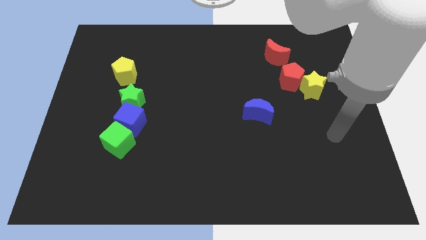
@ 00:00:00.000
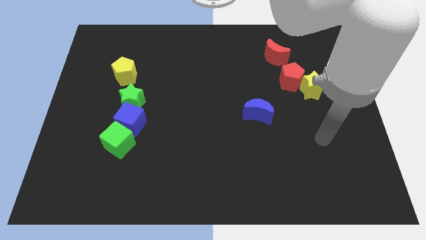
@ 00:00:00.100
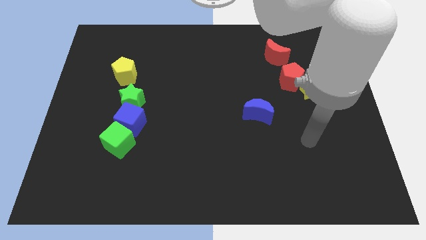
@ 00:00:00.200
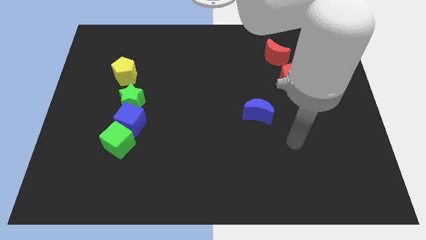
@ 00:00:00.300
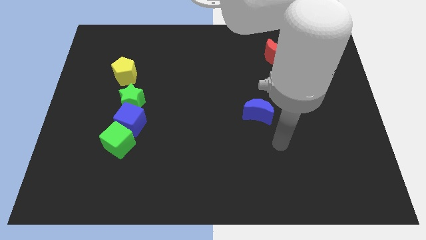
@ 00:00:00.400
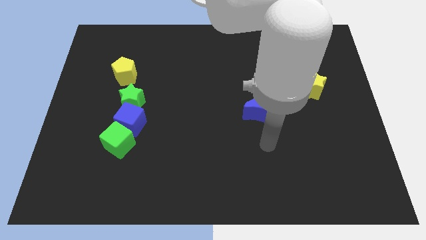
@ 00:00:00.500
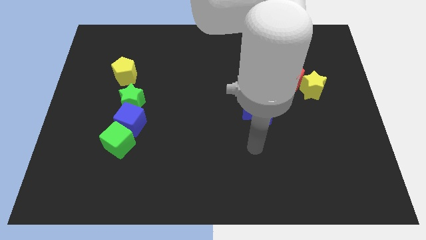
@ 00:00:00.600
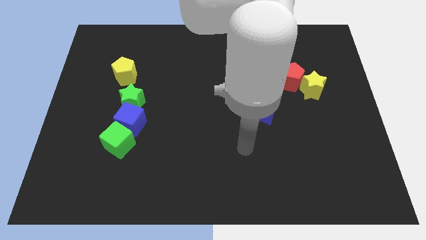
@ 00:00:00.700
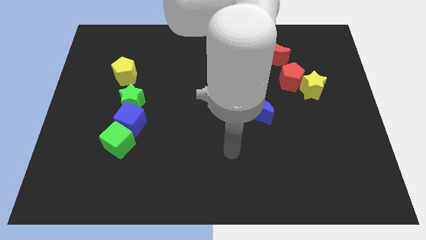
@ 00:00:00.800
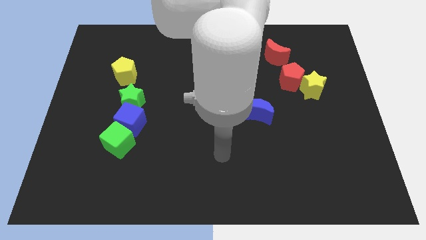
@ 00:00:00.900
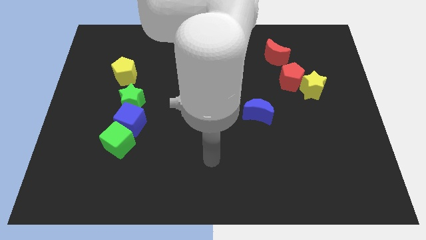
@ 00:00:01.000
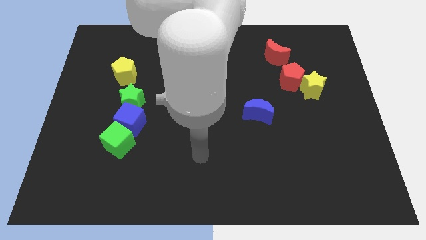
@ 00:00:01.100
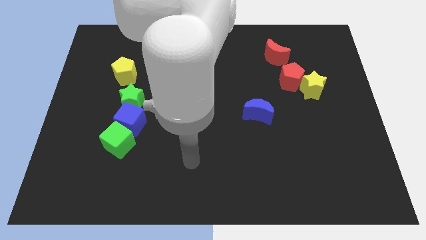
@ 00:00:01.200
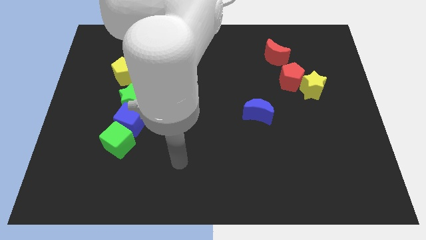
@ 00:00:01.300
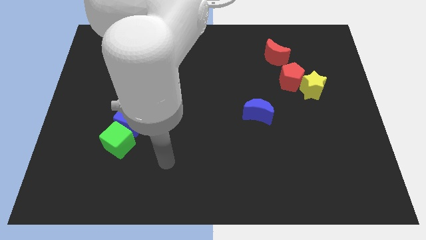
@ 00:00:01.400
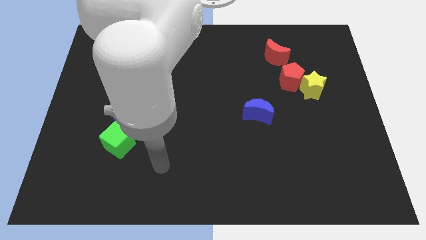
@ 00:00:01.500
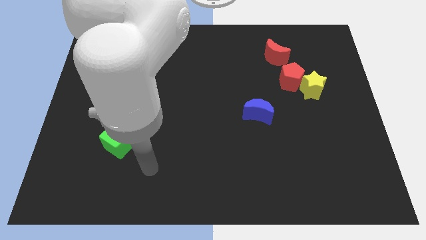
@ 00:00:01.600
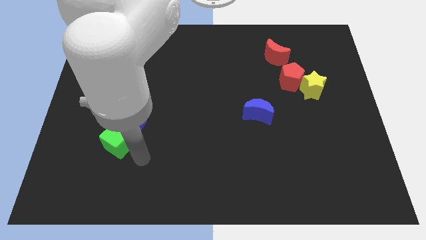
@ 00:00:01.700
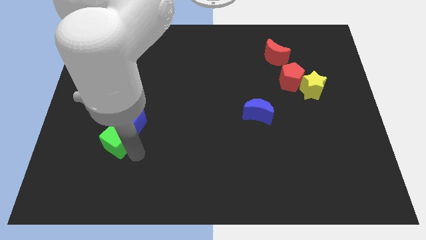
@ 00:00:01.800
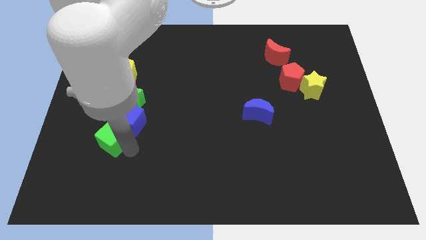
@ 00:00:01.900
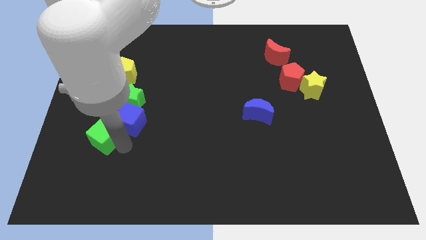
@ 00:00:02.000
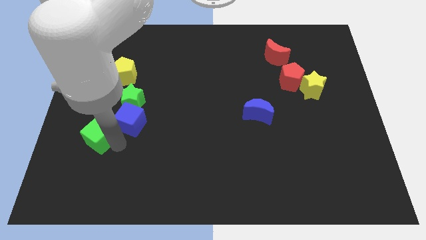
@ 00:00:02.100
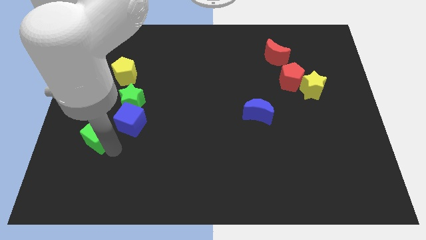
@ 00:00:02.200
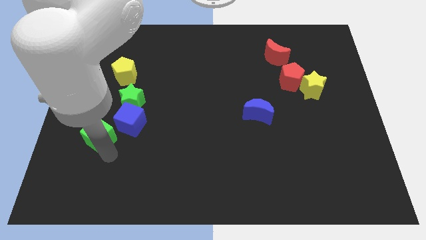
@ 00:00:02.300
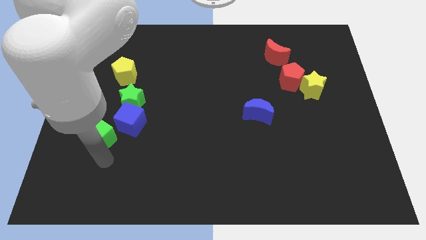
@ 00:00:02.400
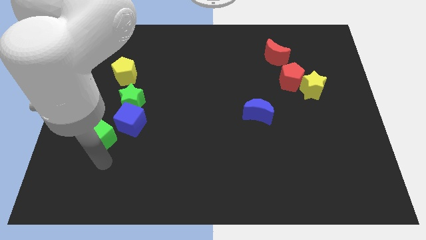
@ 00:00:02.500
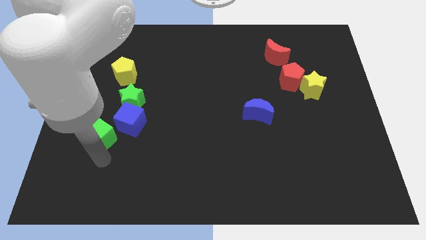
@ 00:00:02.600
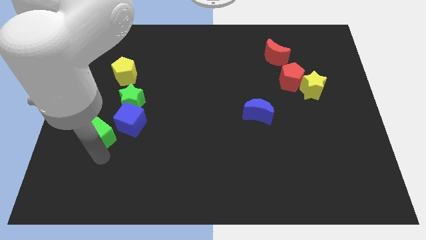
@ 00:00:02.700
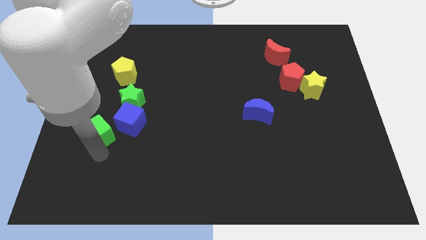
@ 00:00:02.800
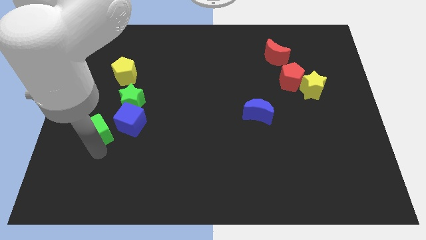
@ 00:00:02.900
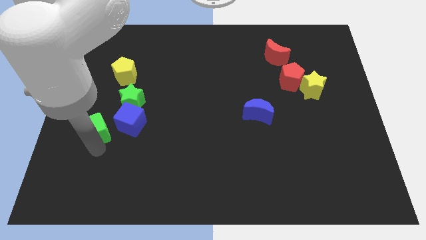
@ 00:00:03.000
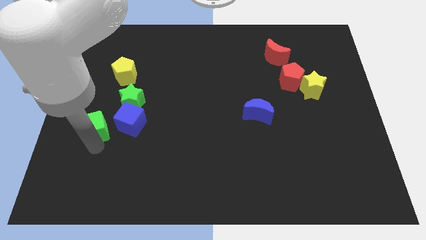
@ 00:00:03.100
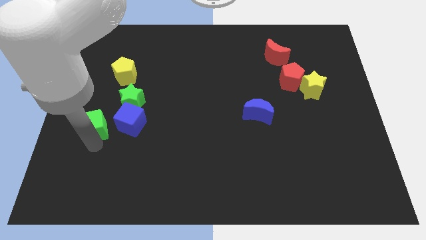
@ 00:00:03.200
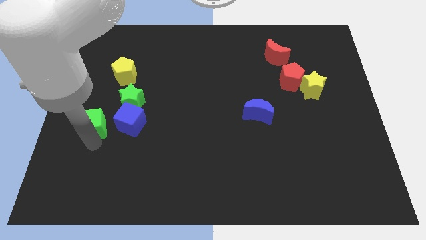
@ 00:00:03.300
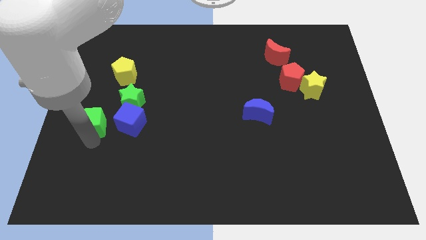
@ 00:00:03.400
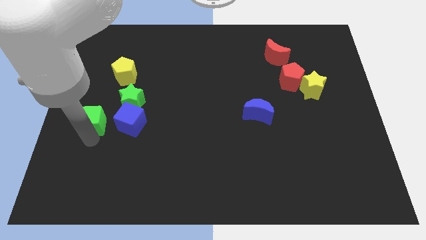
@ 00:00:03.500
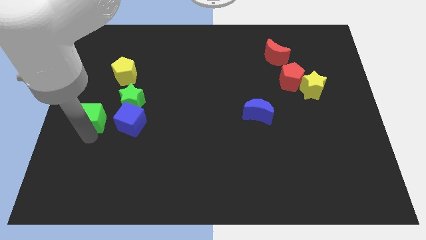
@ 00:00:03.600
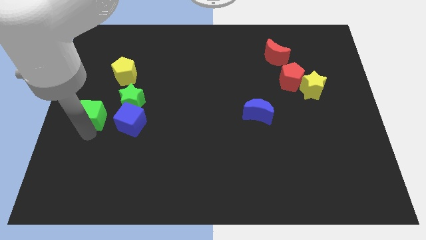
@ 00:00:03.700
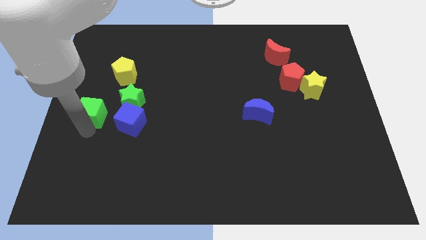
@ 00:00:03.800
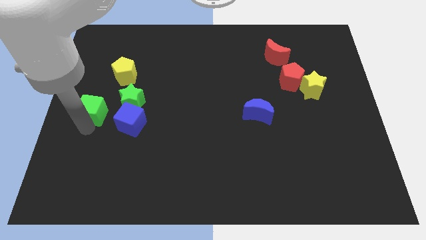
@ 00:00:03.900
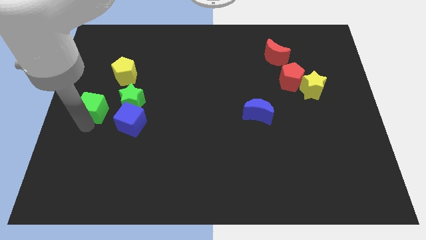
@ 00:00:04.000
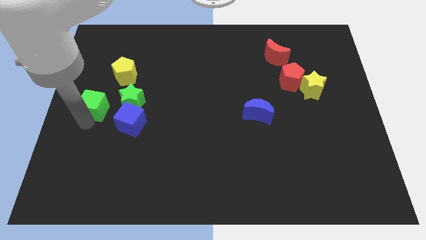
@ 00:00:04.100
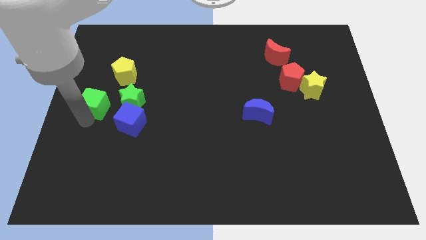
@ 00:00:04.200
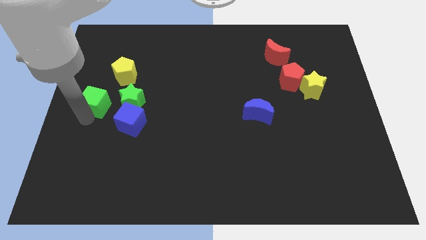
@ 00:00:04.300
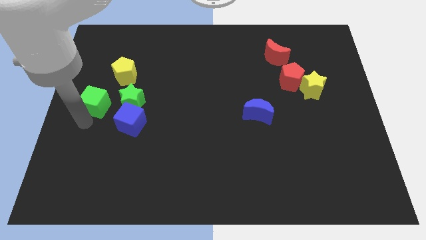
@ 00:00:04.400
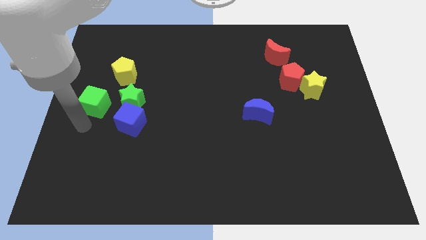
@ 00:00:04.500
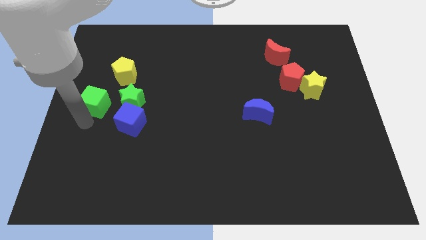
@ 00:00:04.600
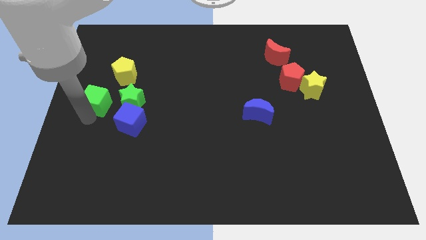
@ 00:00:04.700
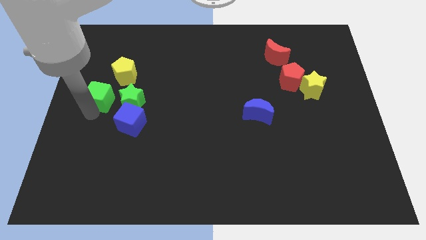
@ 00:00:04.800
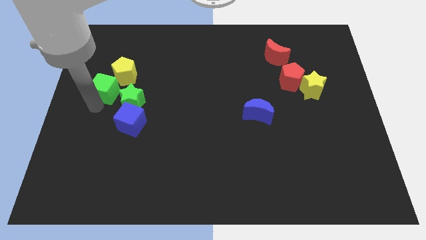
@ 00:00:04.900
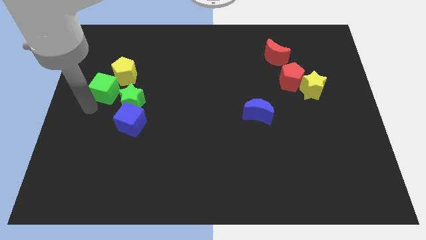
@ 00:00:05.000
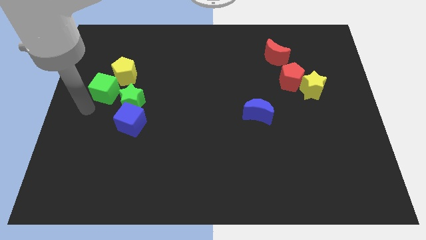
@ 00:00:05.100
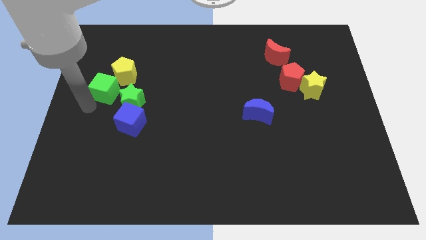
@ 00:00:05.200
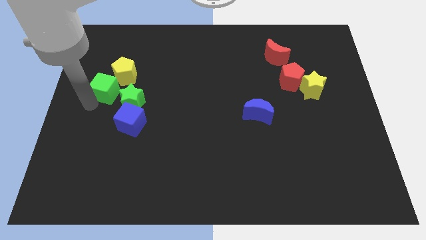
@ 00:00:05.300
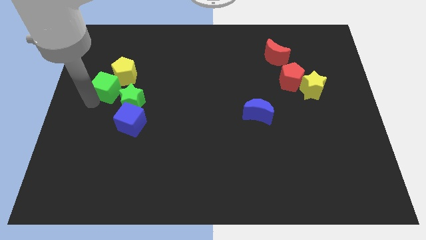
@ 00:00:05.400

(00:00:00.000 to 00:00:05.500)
put the green cube next to the yellow pentagon

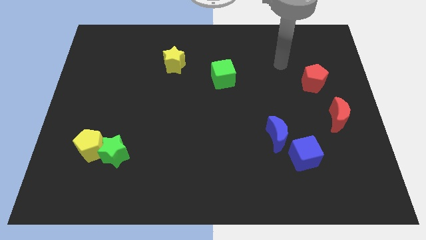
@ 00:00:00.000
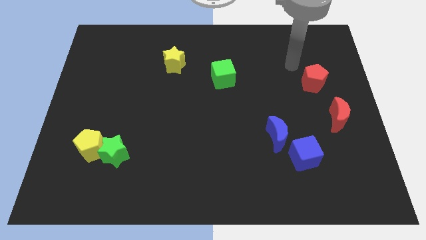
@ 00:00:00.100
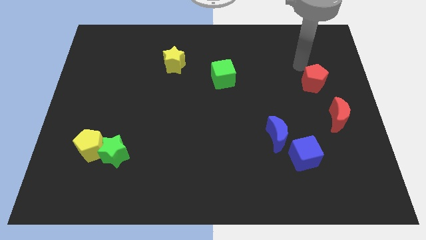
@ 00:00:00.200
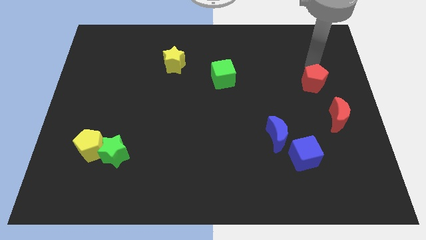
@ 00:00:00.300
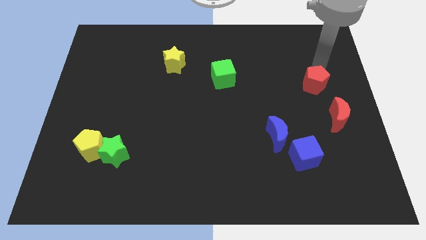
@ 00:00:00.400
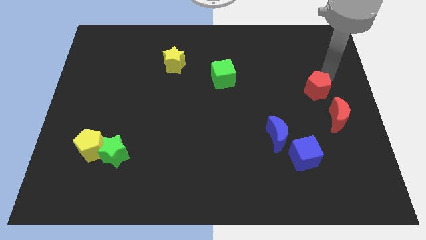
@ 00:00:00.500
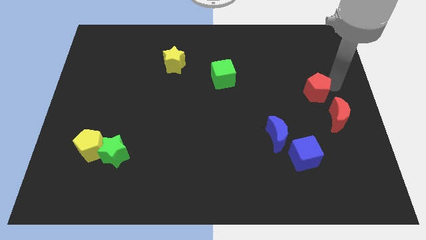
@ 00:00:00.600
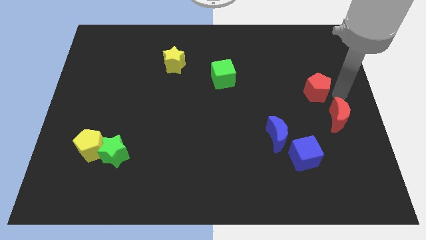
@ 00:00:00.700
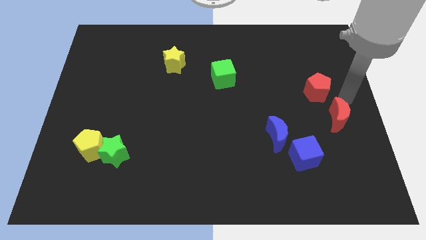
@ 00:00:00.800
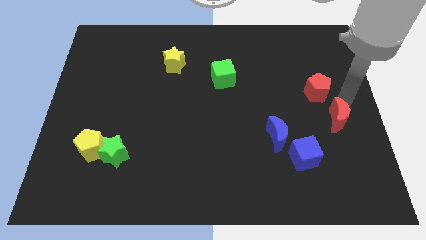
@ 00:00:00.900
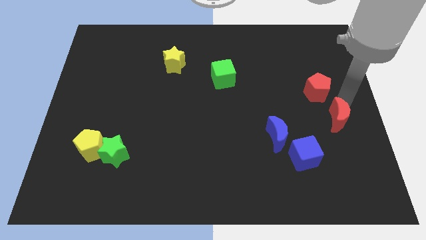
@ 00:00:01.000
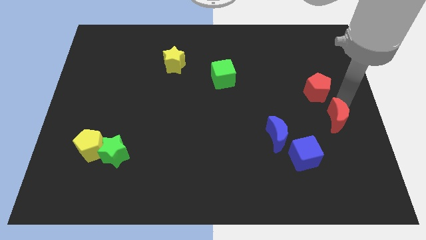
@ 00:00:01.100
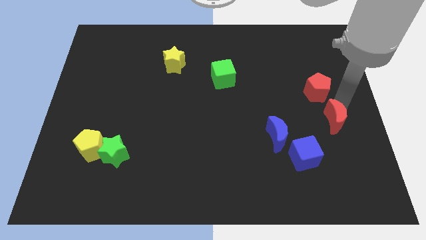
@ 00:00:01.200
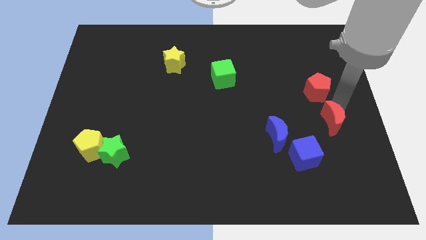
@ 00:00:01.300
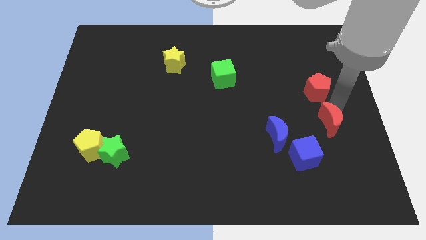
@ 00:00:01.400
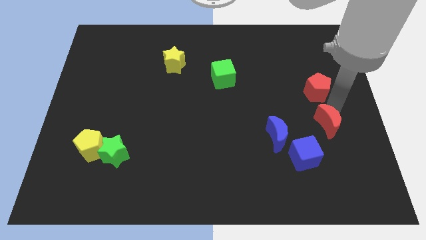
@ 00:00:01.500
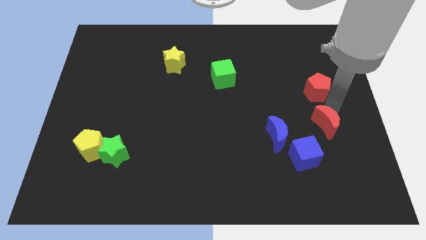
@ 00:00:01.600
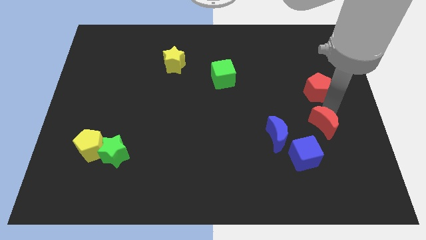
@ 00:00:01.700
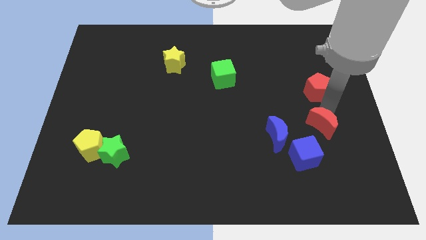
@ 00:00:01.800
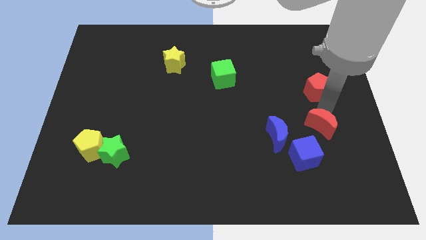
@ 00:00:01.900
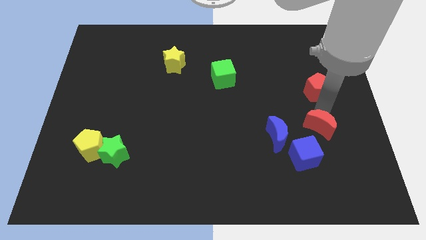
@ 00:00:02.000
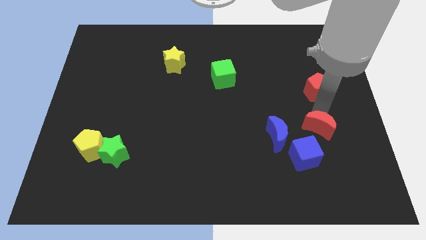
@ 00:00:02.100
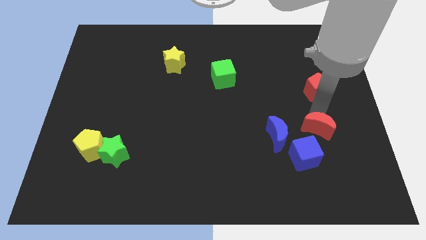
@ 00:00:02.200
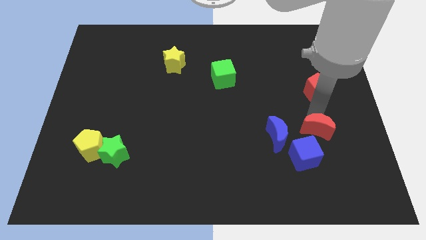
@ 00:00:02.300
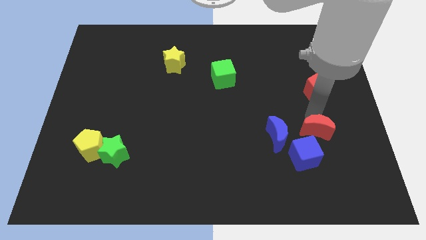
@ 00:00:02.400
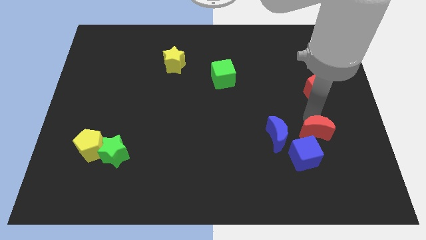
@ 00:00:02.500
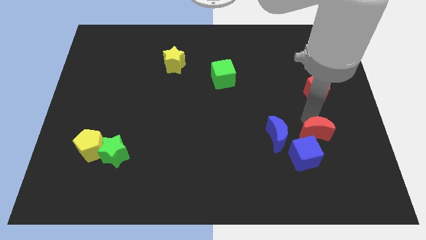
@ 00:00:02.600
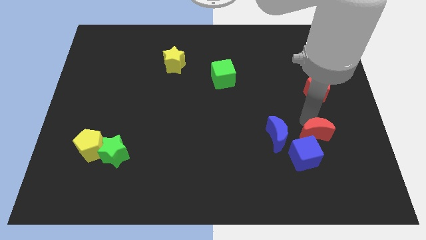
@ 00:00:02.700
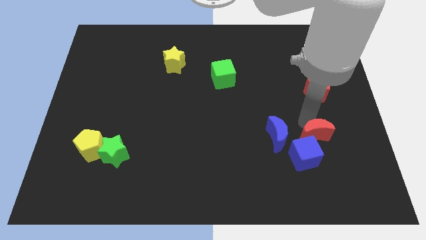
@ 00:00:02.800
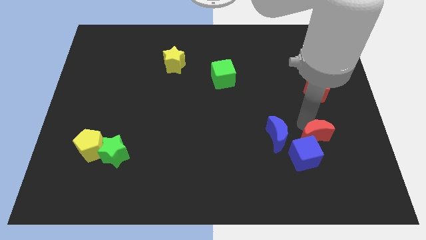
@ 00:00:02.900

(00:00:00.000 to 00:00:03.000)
put the red moon towards the blue cube
